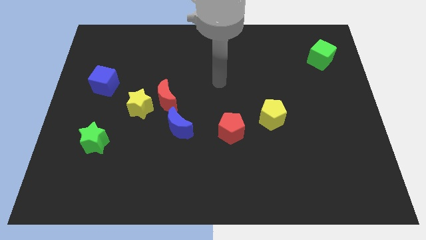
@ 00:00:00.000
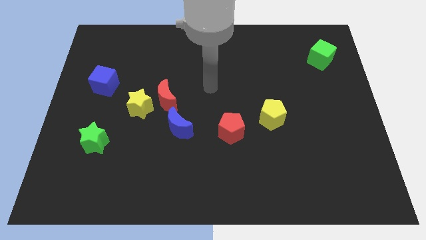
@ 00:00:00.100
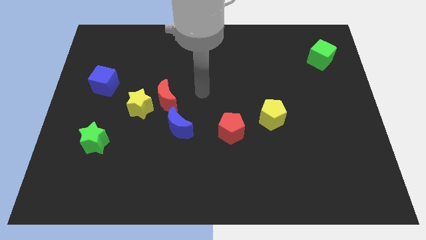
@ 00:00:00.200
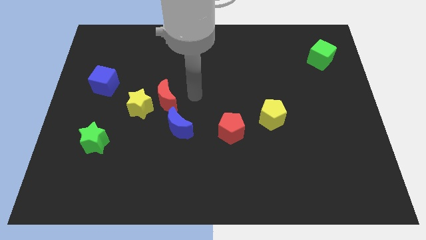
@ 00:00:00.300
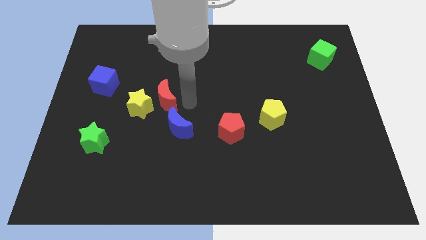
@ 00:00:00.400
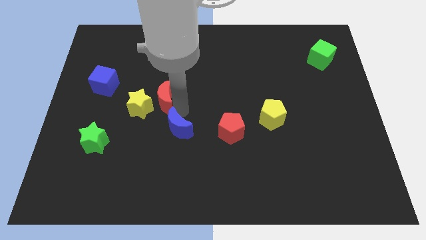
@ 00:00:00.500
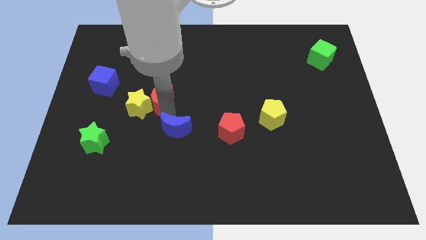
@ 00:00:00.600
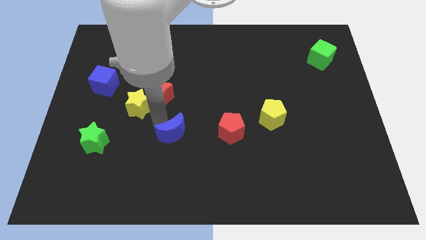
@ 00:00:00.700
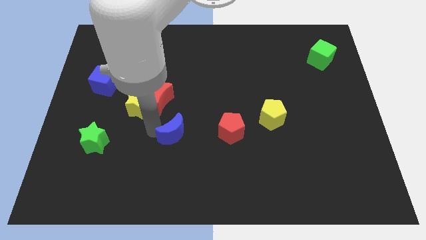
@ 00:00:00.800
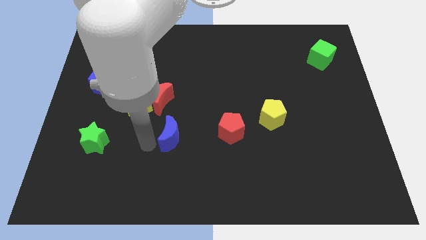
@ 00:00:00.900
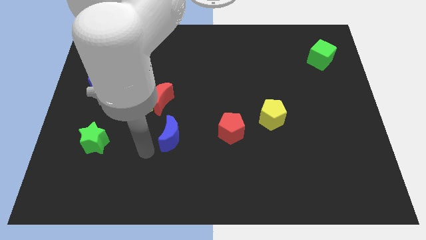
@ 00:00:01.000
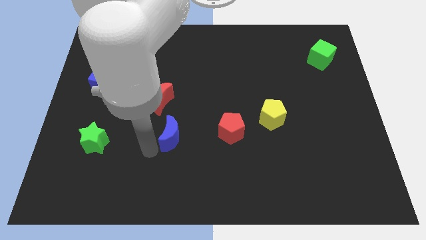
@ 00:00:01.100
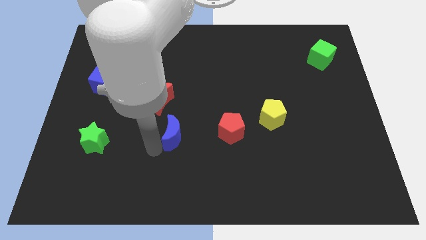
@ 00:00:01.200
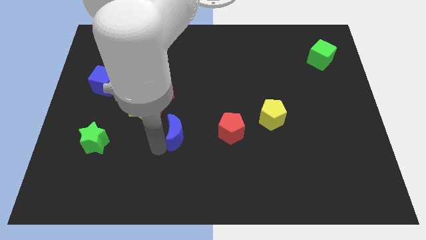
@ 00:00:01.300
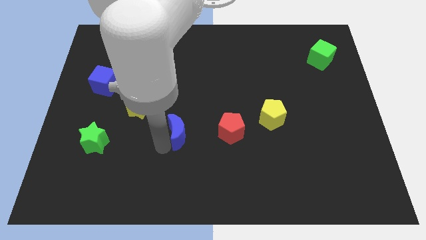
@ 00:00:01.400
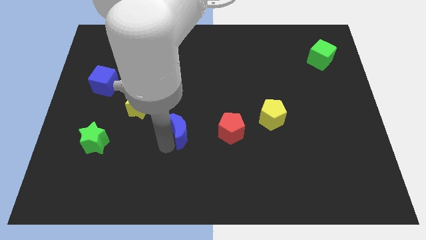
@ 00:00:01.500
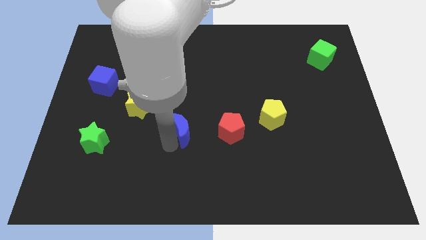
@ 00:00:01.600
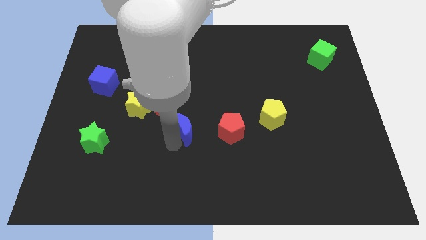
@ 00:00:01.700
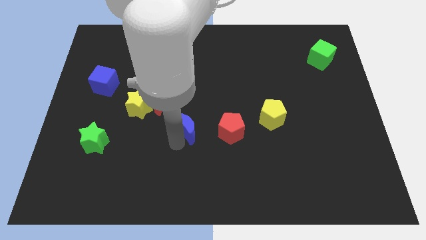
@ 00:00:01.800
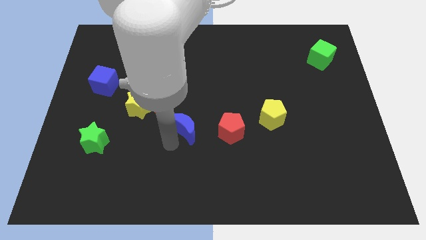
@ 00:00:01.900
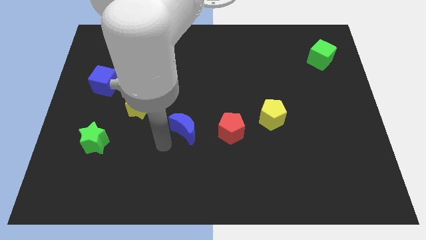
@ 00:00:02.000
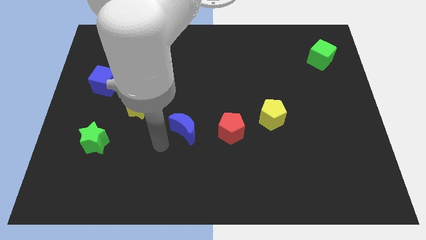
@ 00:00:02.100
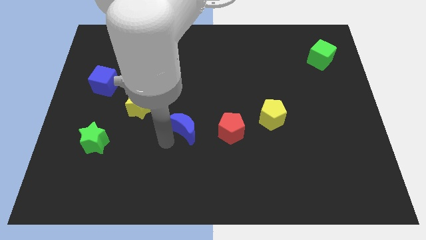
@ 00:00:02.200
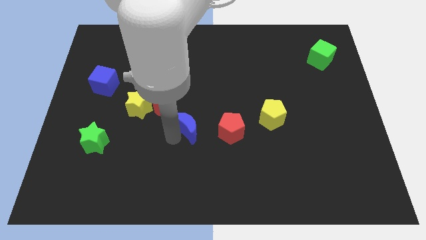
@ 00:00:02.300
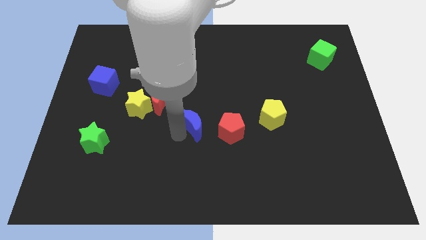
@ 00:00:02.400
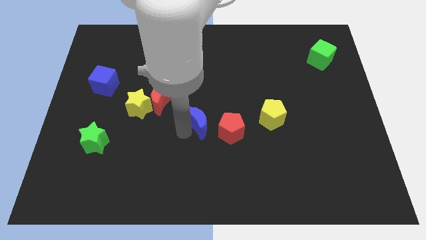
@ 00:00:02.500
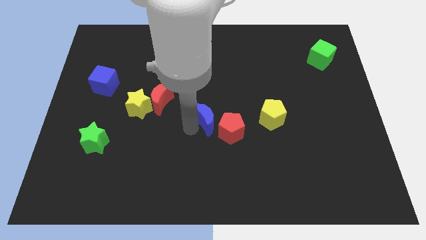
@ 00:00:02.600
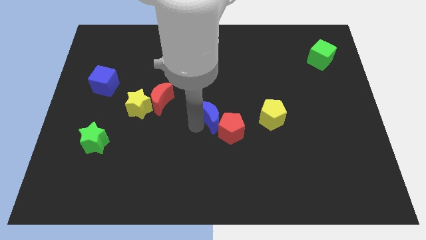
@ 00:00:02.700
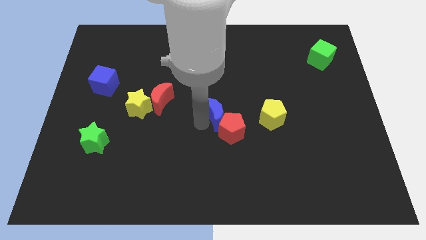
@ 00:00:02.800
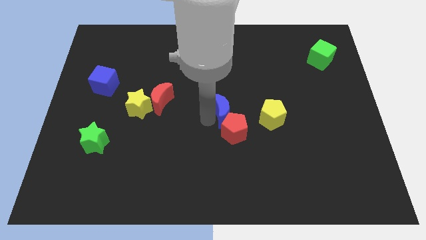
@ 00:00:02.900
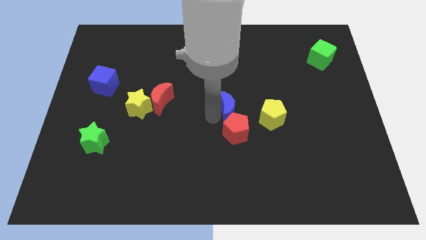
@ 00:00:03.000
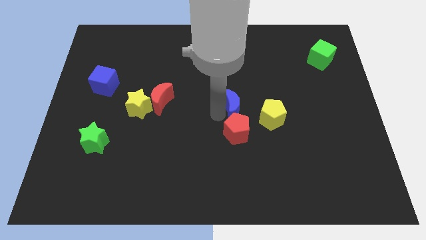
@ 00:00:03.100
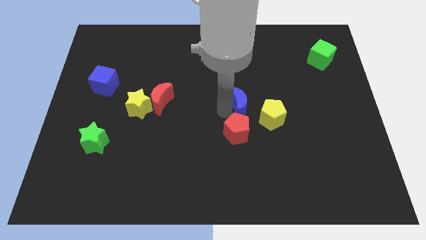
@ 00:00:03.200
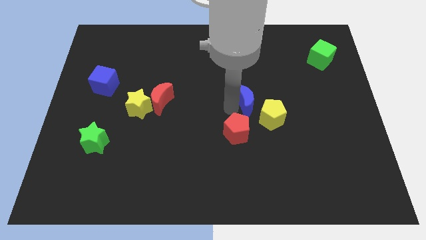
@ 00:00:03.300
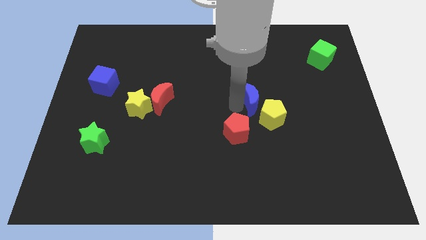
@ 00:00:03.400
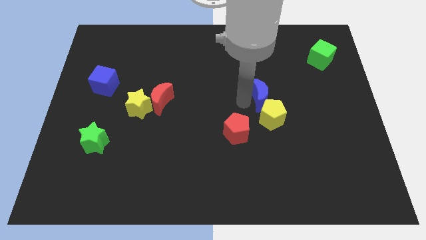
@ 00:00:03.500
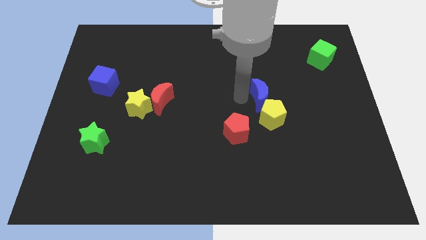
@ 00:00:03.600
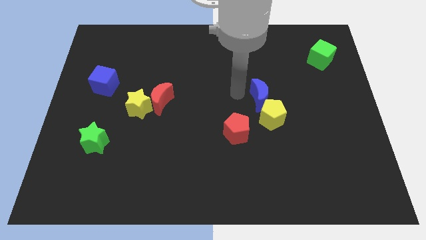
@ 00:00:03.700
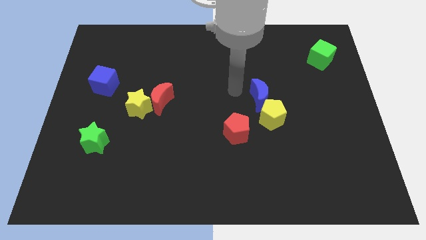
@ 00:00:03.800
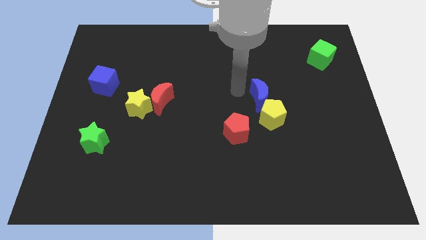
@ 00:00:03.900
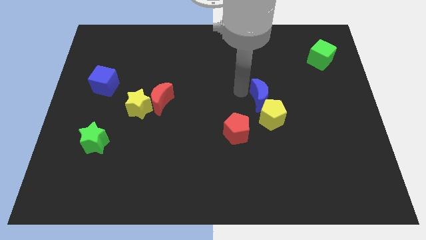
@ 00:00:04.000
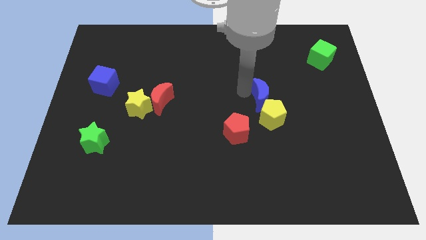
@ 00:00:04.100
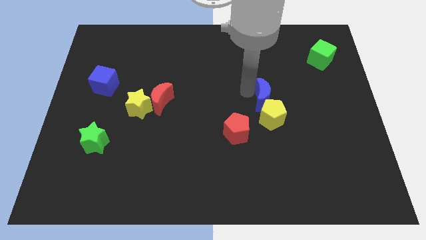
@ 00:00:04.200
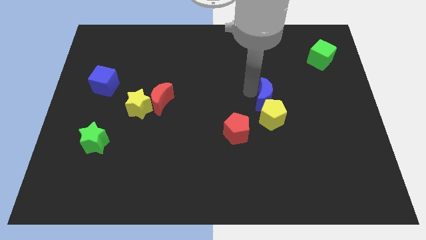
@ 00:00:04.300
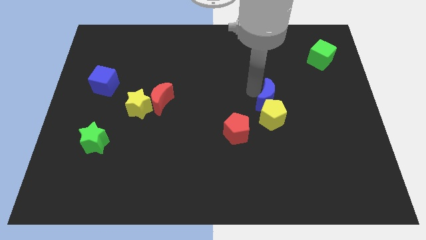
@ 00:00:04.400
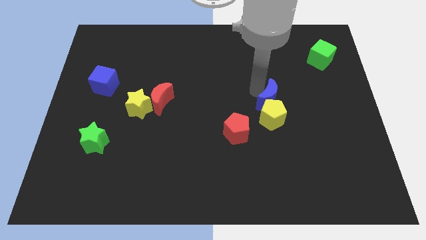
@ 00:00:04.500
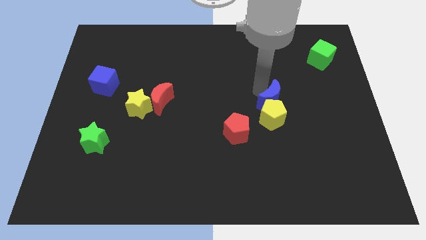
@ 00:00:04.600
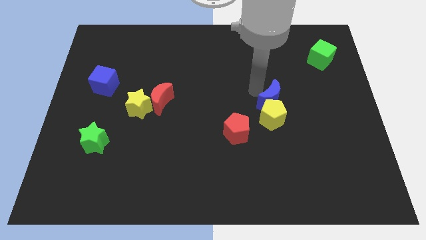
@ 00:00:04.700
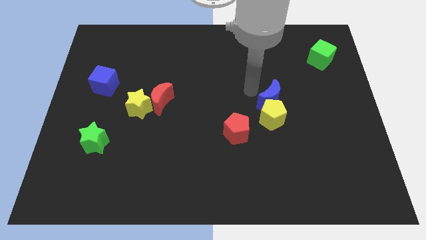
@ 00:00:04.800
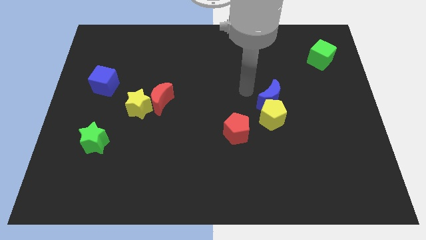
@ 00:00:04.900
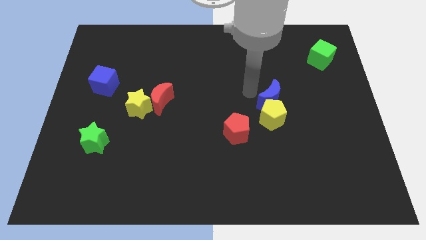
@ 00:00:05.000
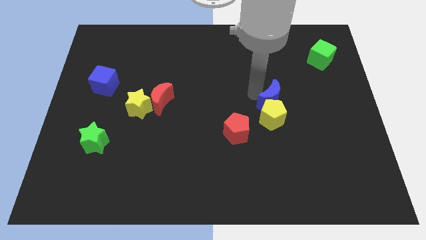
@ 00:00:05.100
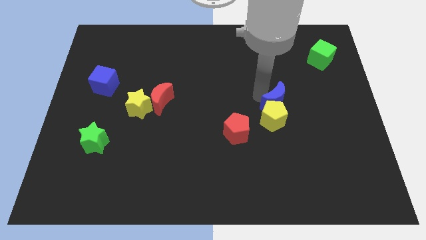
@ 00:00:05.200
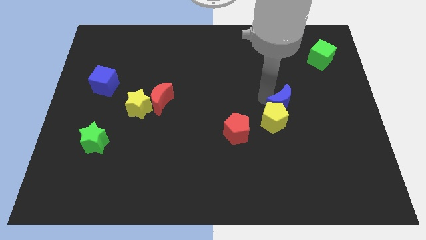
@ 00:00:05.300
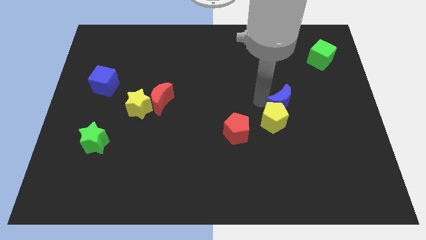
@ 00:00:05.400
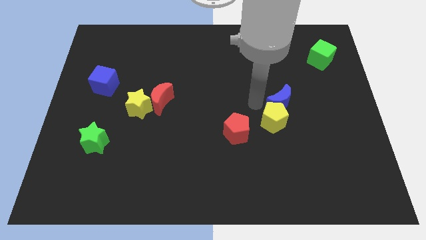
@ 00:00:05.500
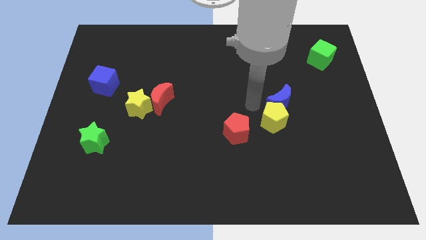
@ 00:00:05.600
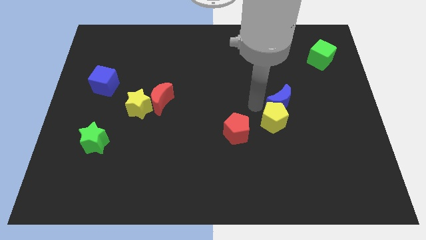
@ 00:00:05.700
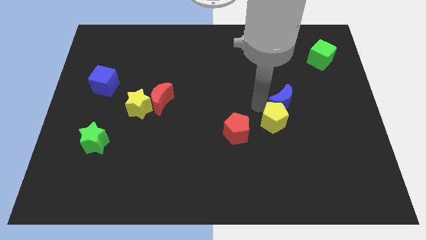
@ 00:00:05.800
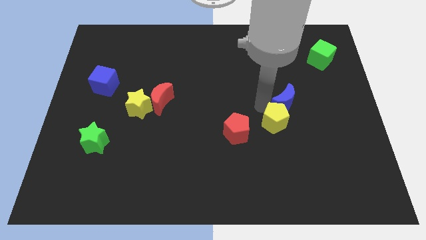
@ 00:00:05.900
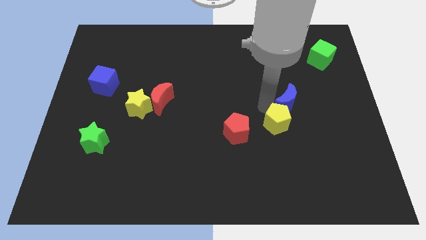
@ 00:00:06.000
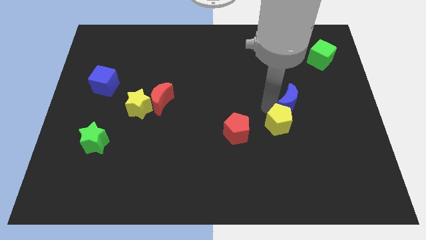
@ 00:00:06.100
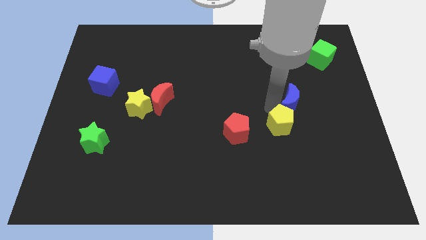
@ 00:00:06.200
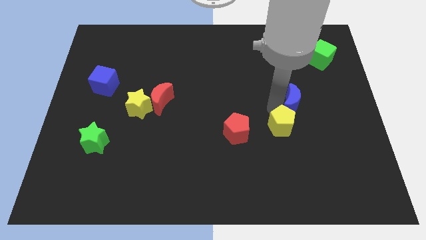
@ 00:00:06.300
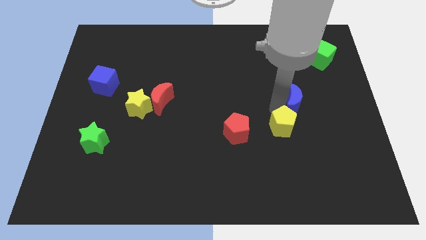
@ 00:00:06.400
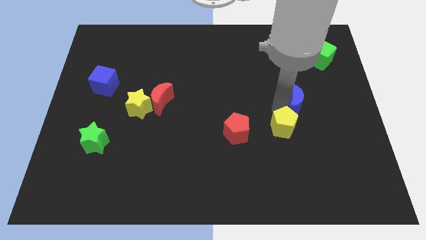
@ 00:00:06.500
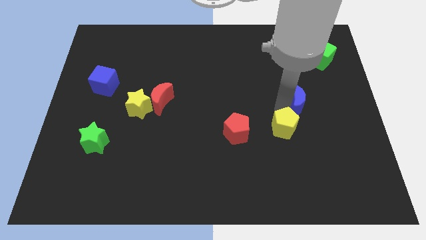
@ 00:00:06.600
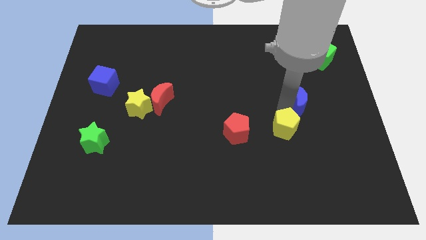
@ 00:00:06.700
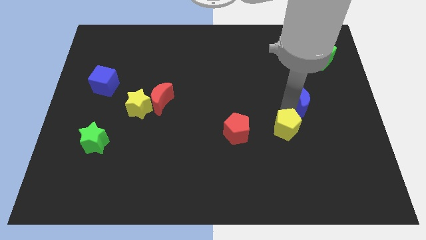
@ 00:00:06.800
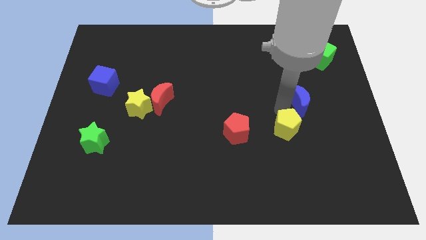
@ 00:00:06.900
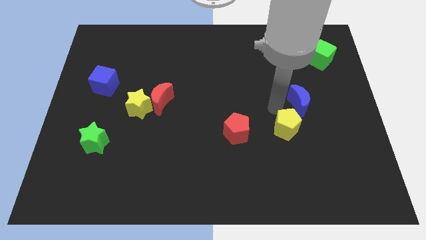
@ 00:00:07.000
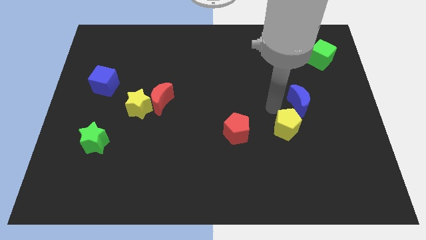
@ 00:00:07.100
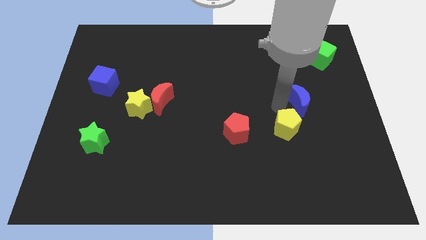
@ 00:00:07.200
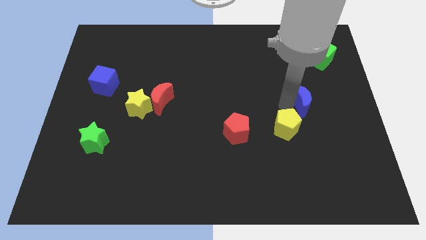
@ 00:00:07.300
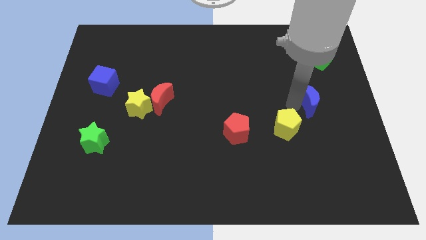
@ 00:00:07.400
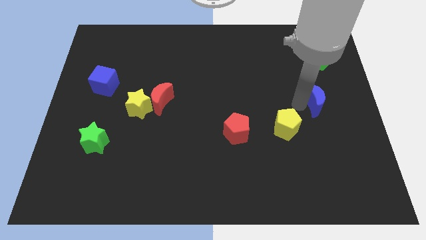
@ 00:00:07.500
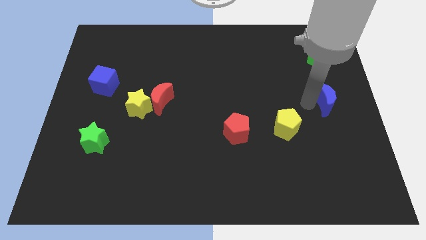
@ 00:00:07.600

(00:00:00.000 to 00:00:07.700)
slide the blue moon to the right side
